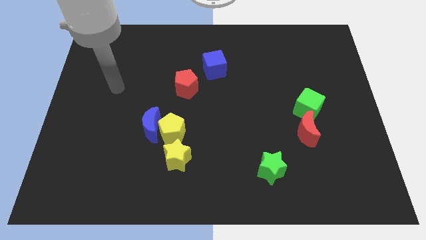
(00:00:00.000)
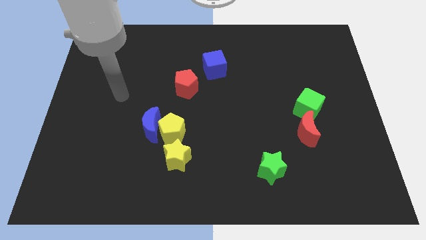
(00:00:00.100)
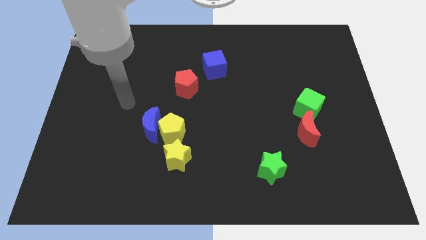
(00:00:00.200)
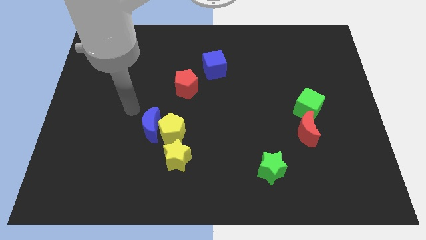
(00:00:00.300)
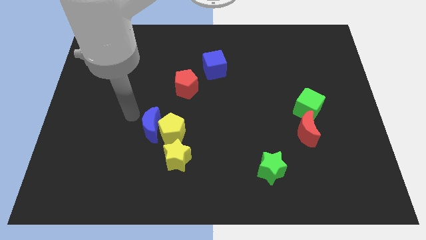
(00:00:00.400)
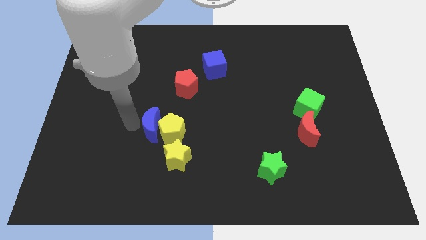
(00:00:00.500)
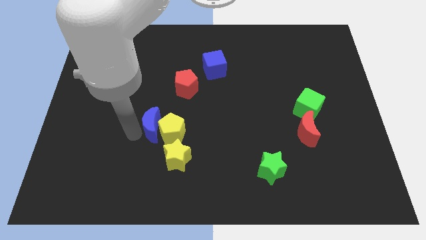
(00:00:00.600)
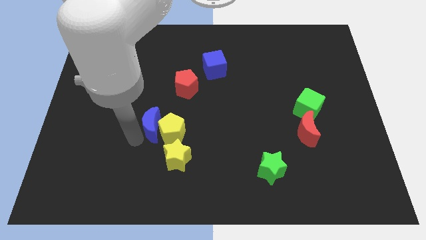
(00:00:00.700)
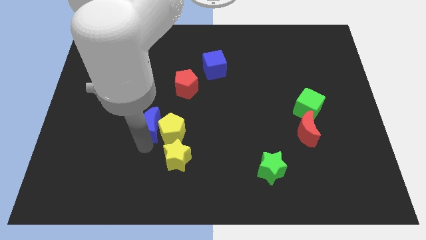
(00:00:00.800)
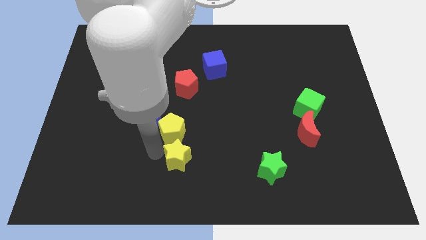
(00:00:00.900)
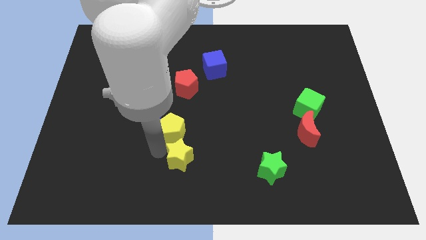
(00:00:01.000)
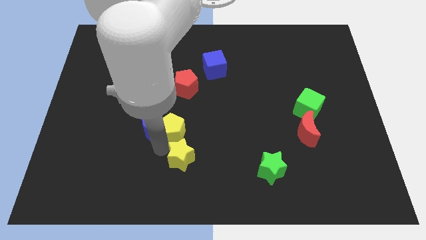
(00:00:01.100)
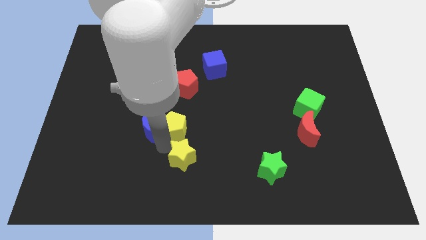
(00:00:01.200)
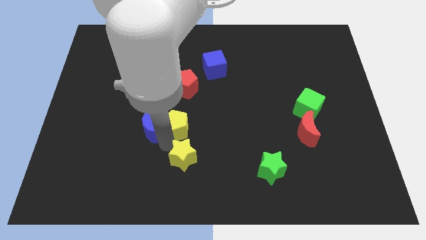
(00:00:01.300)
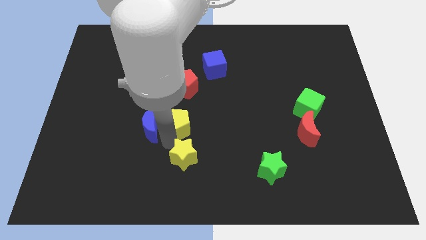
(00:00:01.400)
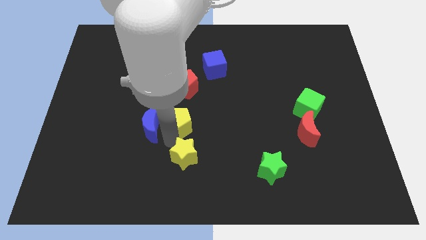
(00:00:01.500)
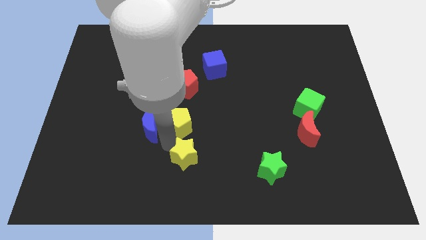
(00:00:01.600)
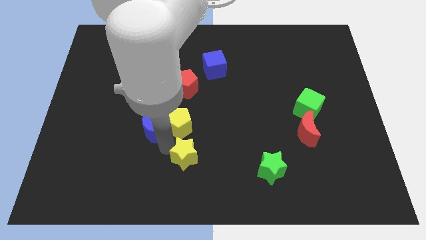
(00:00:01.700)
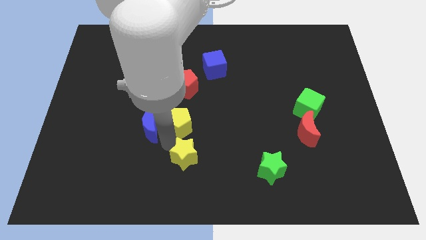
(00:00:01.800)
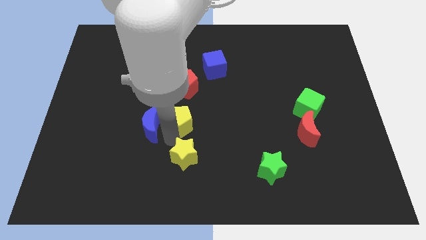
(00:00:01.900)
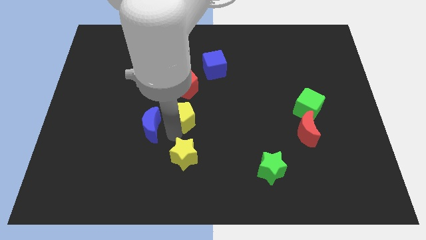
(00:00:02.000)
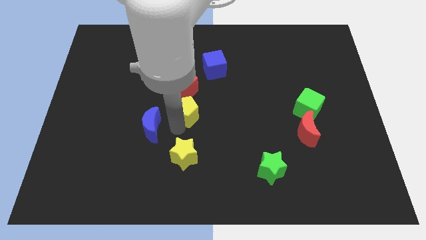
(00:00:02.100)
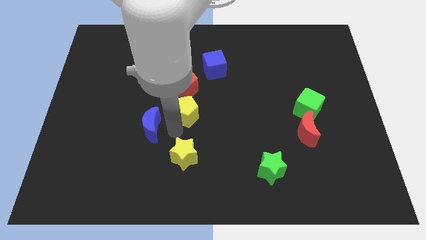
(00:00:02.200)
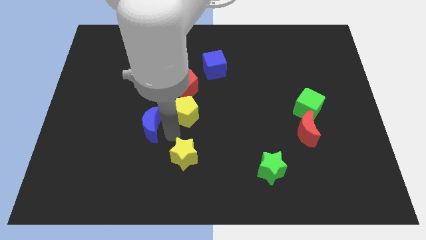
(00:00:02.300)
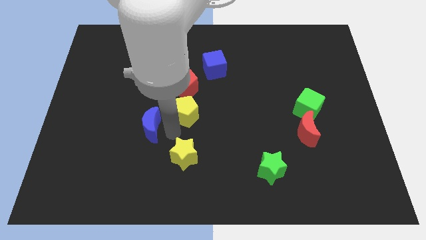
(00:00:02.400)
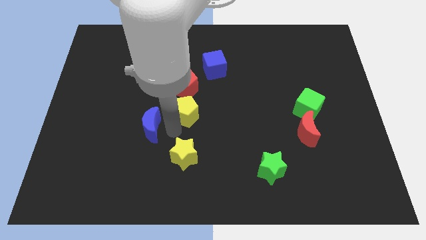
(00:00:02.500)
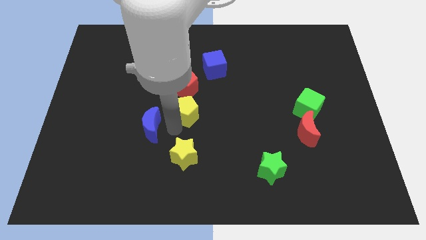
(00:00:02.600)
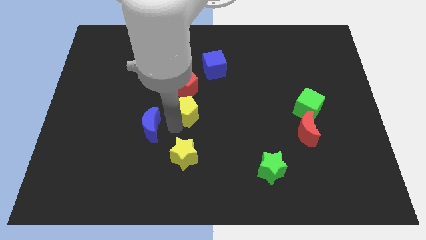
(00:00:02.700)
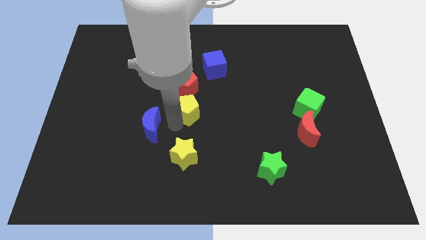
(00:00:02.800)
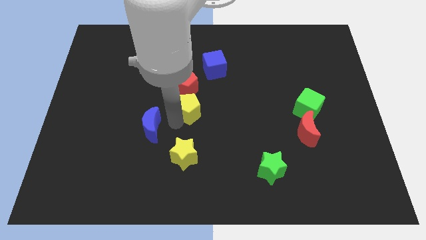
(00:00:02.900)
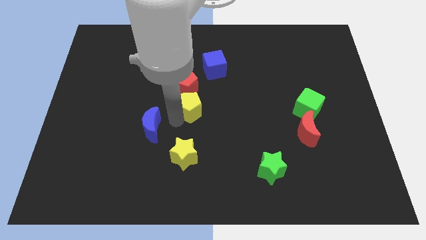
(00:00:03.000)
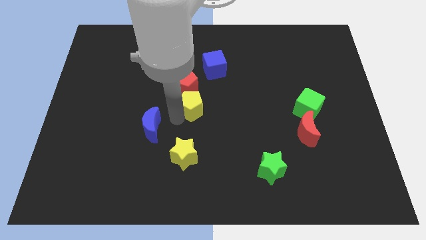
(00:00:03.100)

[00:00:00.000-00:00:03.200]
move the yellow pentagon away from the blue moon and yellow star

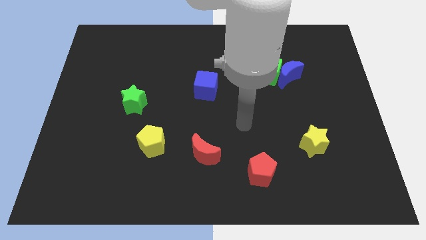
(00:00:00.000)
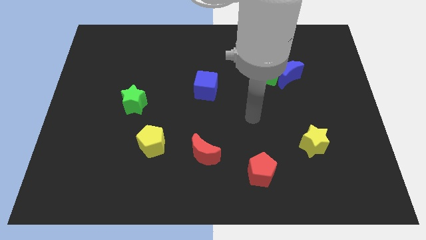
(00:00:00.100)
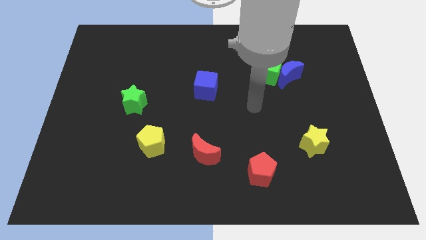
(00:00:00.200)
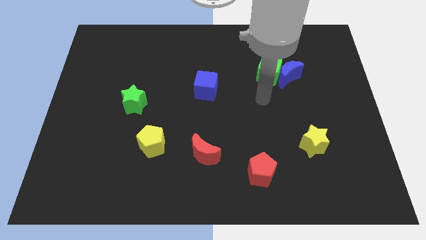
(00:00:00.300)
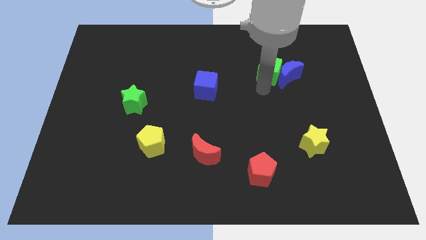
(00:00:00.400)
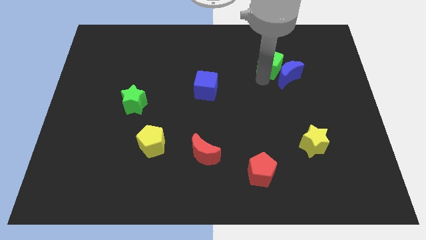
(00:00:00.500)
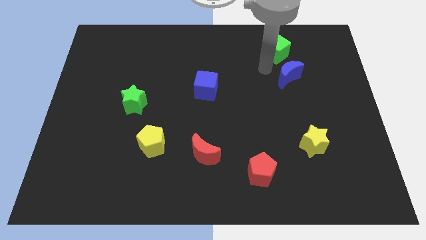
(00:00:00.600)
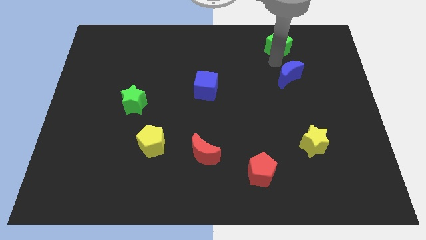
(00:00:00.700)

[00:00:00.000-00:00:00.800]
pull the blue moon apart from the green cube

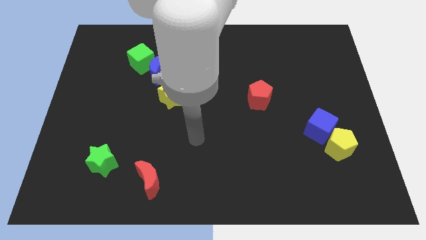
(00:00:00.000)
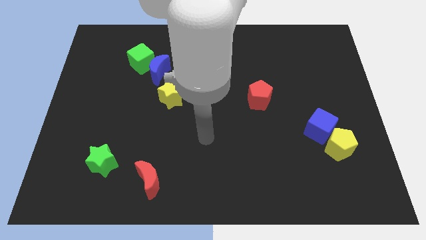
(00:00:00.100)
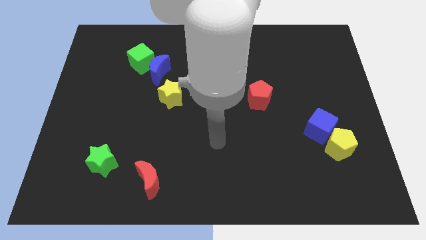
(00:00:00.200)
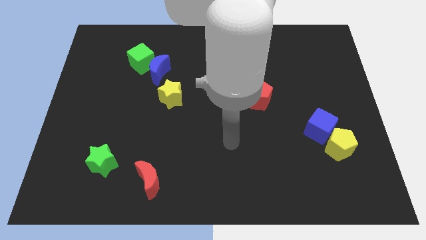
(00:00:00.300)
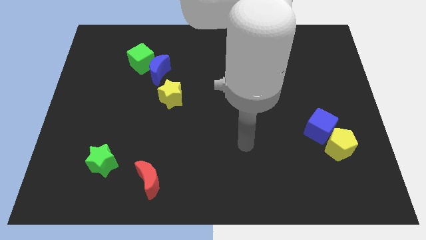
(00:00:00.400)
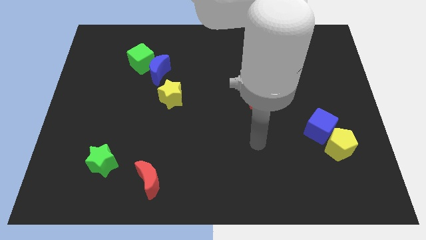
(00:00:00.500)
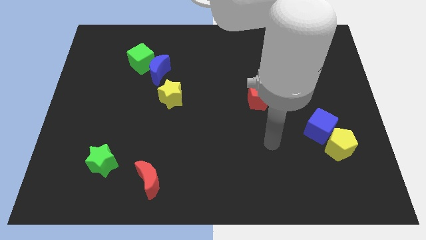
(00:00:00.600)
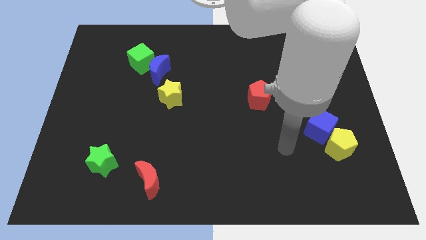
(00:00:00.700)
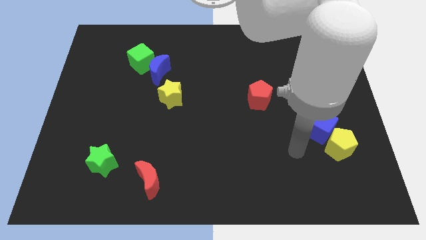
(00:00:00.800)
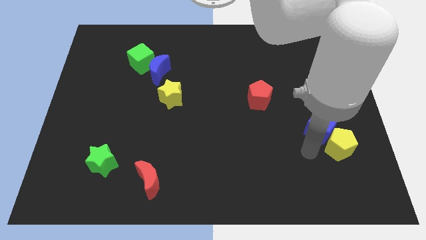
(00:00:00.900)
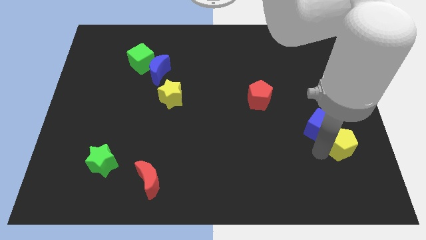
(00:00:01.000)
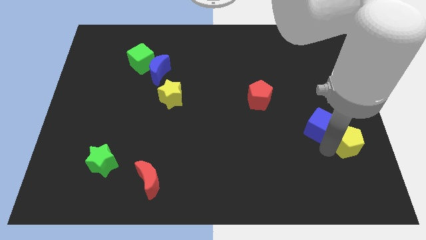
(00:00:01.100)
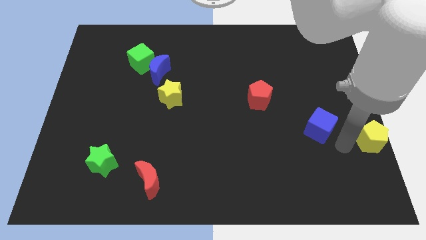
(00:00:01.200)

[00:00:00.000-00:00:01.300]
separate the blue cube from the yellow pentagon

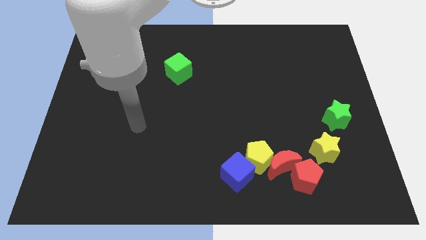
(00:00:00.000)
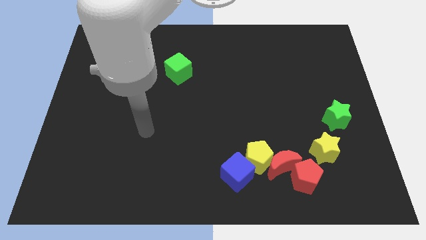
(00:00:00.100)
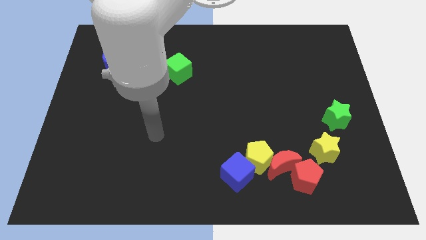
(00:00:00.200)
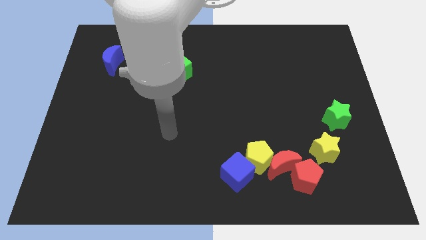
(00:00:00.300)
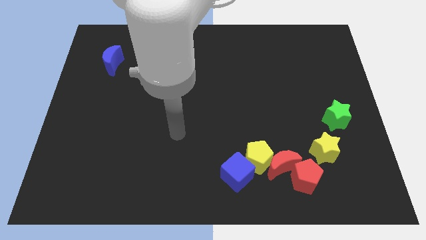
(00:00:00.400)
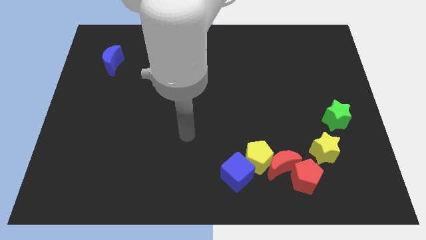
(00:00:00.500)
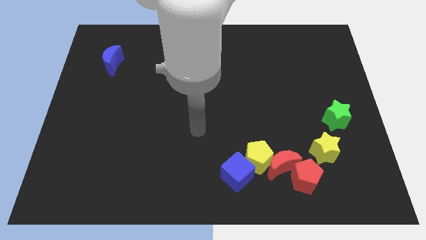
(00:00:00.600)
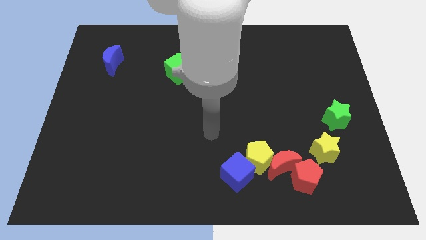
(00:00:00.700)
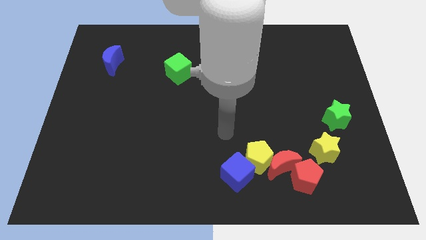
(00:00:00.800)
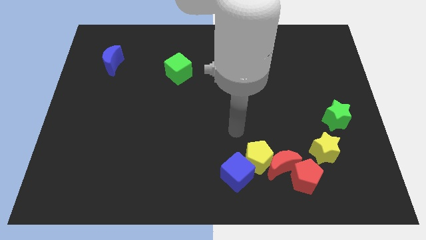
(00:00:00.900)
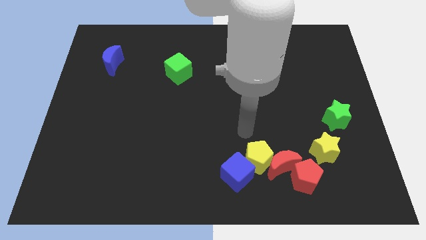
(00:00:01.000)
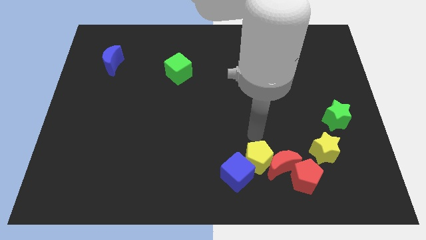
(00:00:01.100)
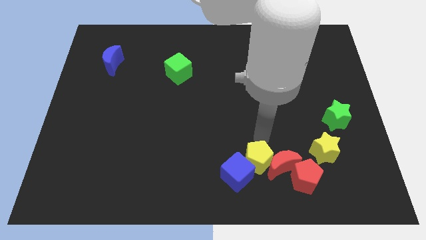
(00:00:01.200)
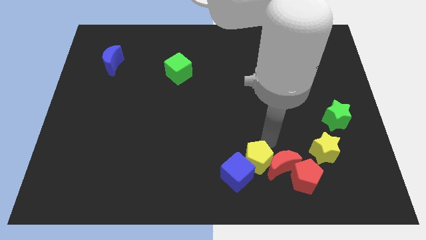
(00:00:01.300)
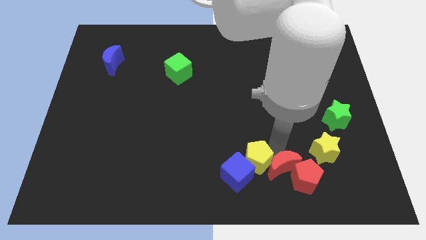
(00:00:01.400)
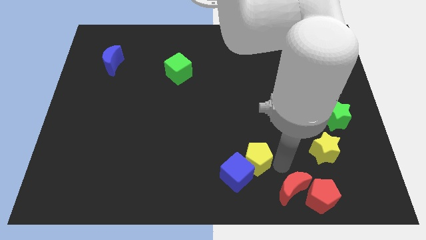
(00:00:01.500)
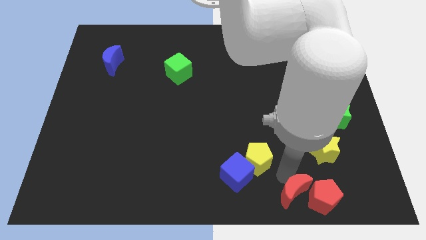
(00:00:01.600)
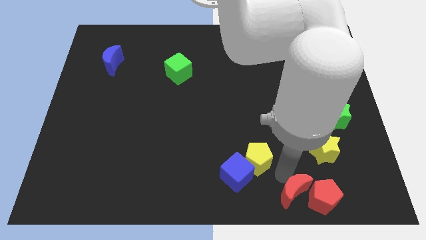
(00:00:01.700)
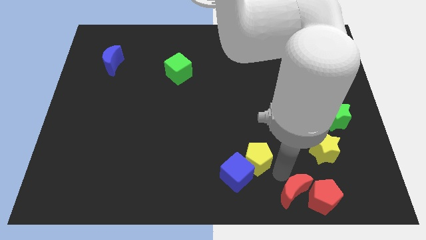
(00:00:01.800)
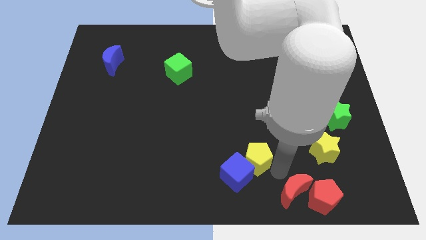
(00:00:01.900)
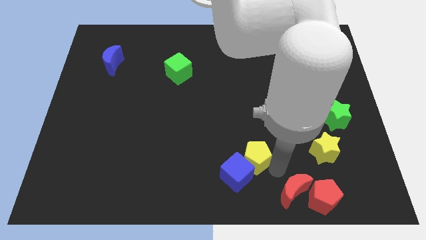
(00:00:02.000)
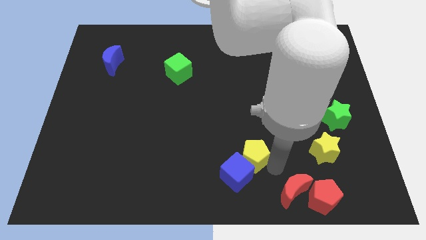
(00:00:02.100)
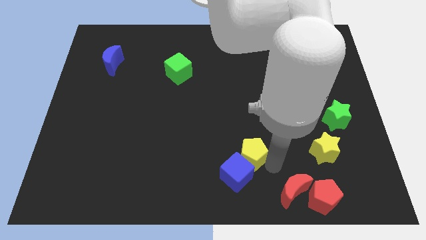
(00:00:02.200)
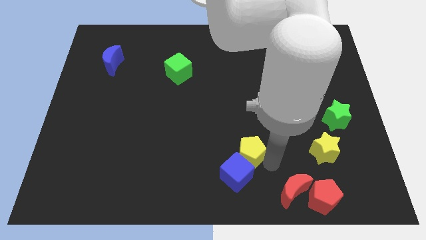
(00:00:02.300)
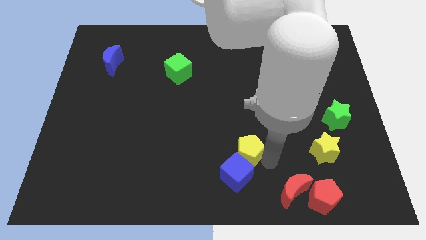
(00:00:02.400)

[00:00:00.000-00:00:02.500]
pull the yellow pentagon apart from the red moon, blue cube, and red pentagon

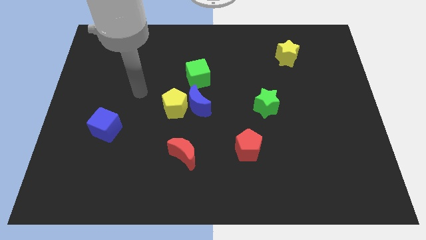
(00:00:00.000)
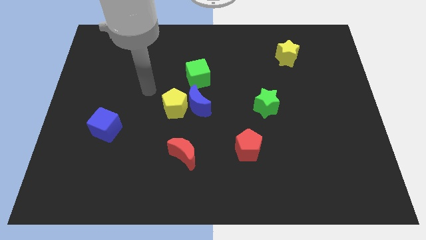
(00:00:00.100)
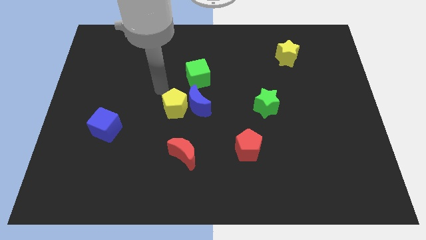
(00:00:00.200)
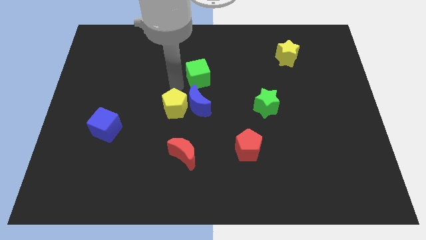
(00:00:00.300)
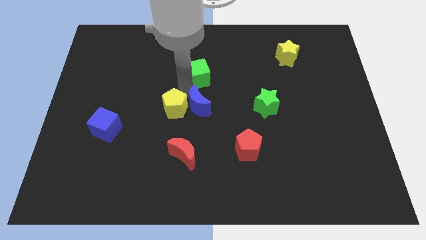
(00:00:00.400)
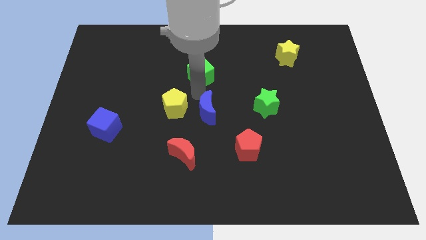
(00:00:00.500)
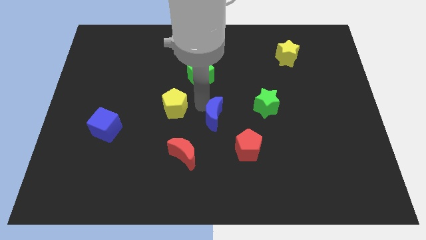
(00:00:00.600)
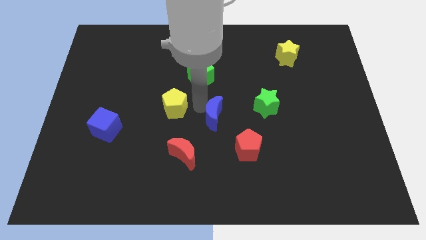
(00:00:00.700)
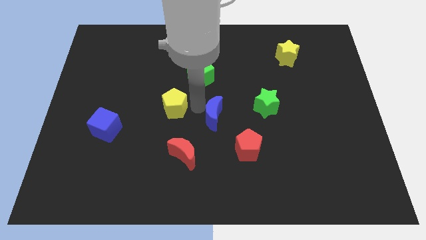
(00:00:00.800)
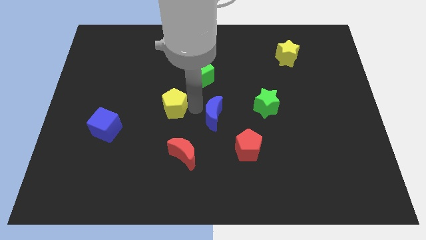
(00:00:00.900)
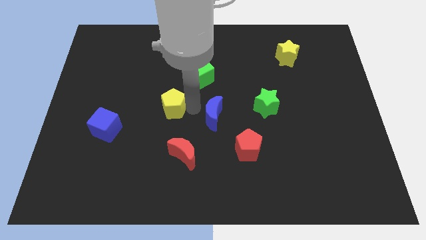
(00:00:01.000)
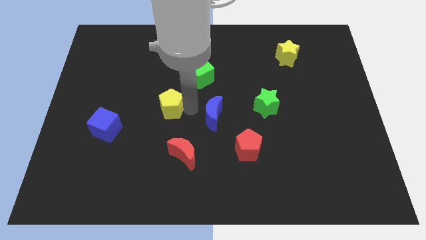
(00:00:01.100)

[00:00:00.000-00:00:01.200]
pull the yellow pentagon apart from the blue moon
